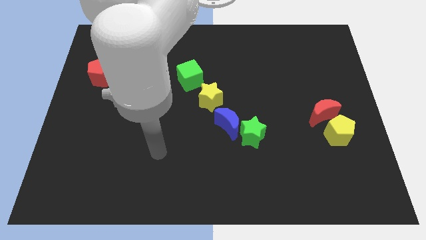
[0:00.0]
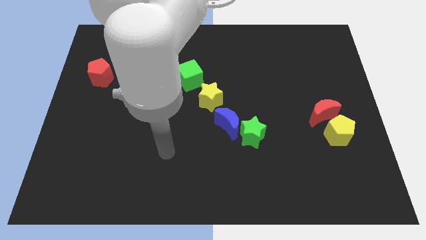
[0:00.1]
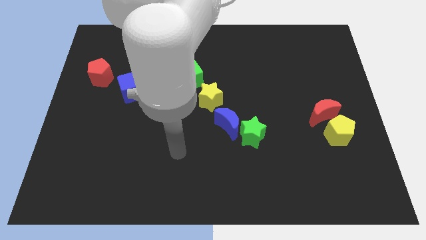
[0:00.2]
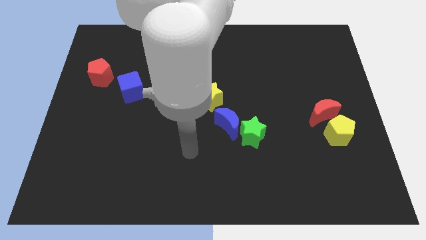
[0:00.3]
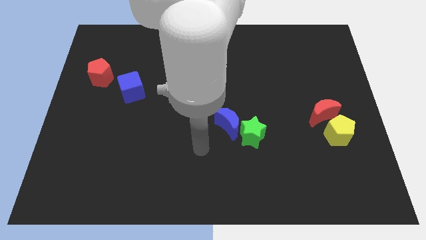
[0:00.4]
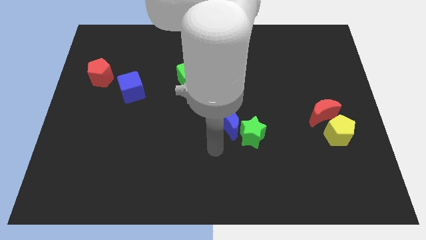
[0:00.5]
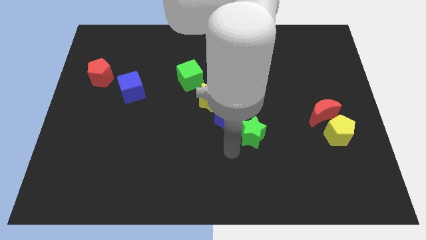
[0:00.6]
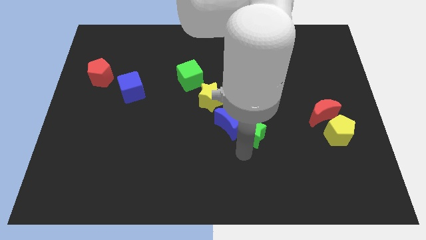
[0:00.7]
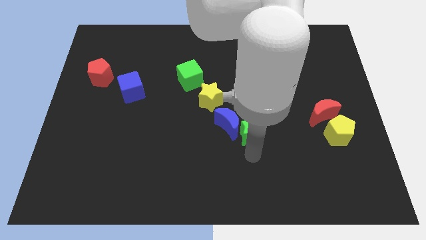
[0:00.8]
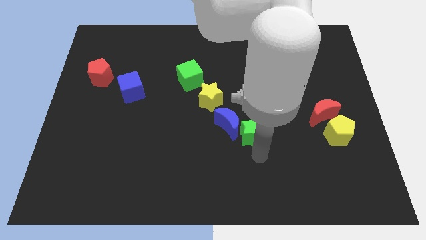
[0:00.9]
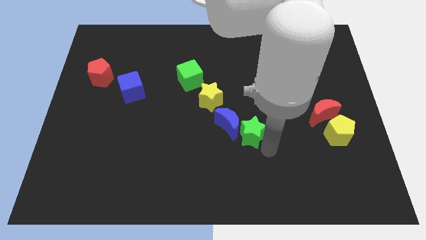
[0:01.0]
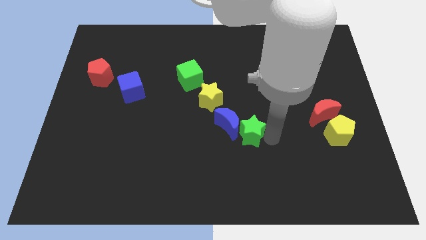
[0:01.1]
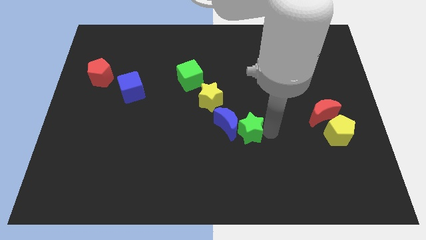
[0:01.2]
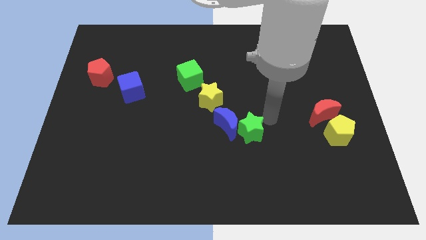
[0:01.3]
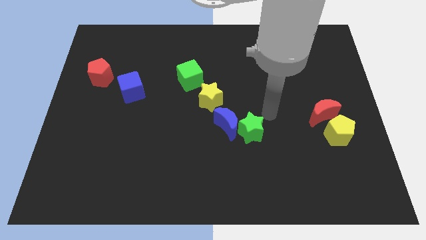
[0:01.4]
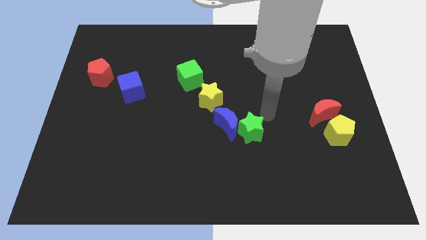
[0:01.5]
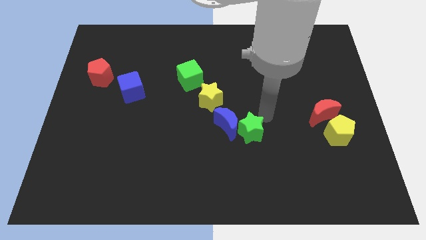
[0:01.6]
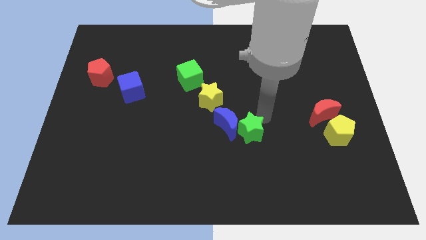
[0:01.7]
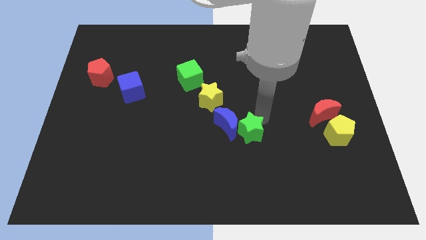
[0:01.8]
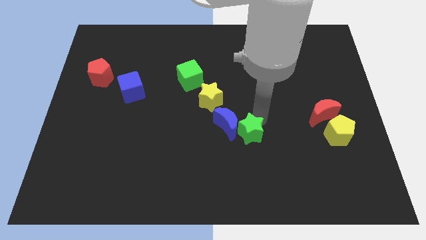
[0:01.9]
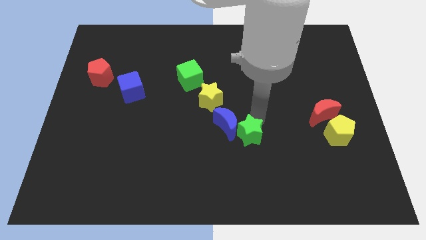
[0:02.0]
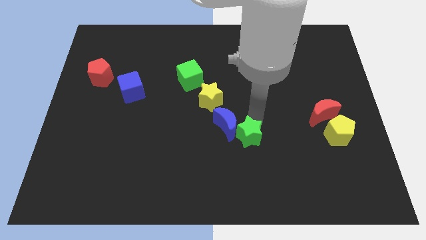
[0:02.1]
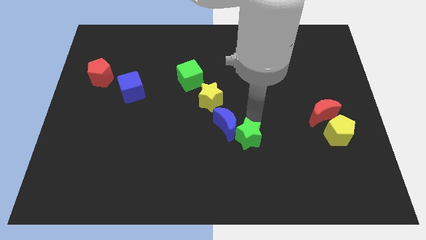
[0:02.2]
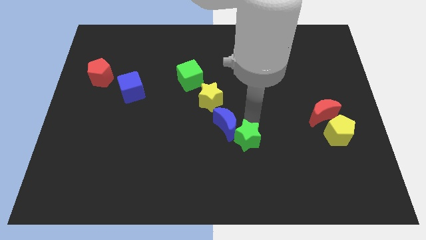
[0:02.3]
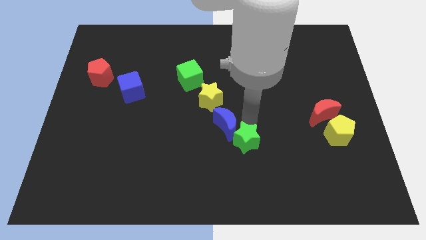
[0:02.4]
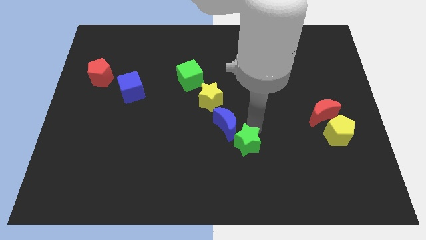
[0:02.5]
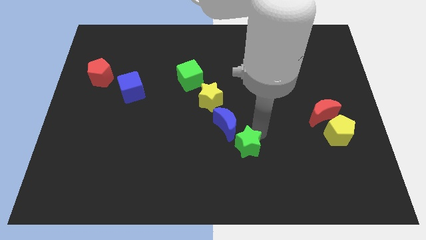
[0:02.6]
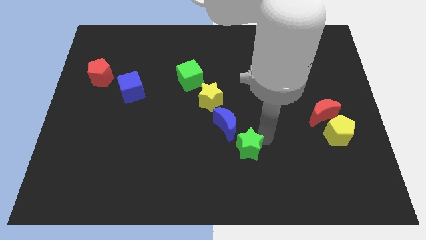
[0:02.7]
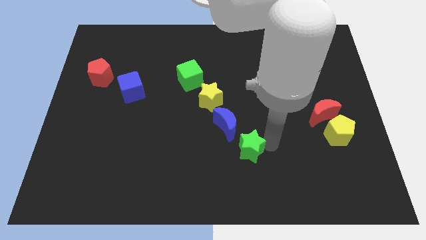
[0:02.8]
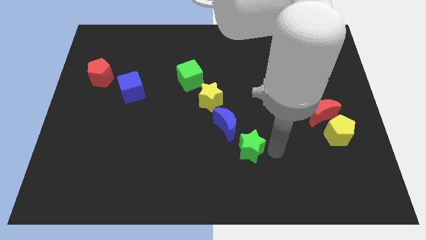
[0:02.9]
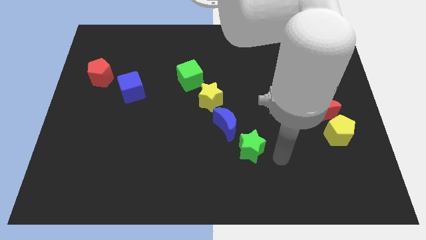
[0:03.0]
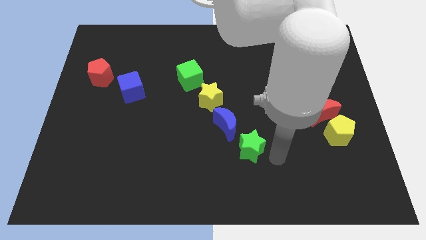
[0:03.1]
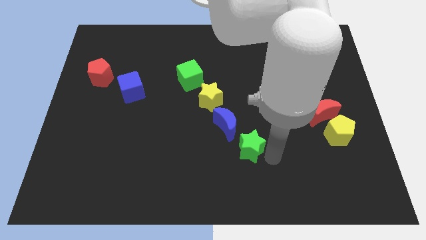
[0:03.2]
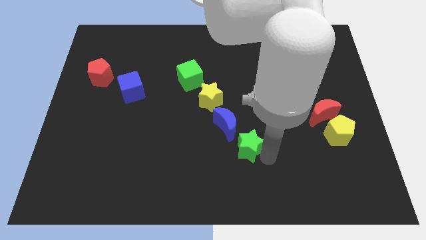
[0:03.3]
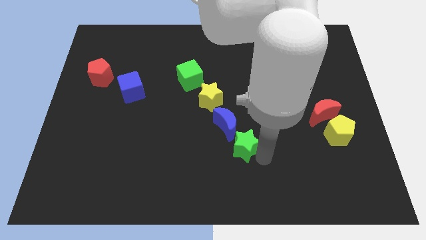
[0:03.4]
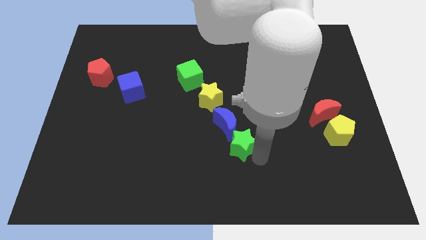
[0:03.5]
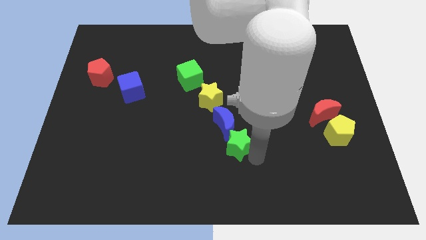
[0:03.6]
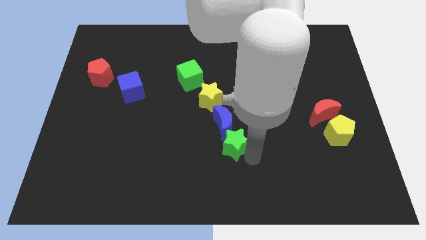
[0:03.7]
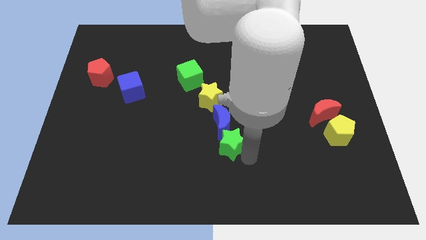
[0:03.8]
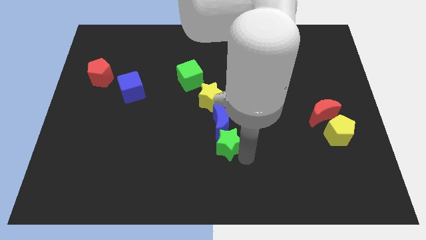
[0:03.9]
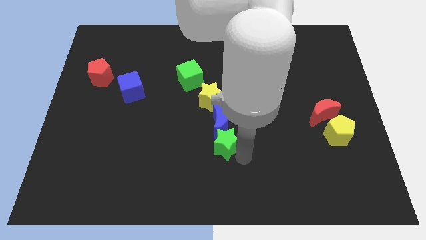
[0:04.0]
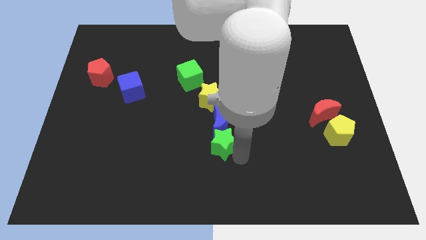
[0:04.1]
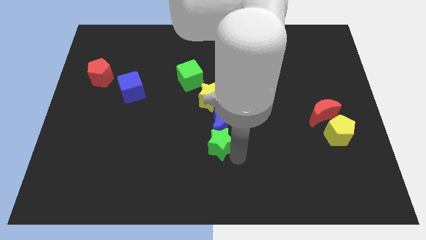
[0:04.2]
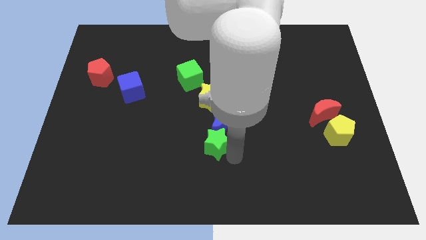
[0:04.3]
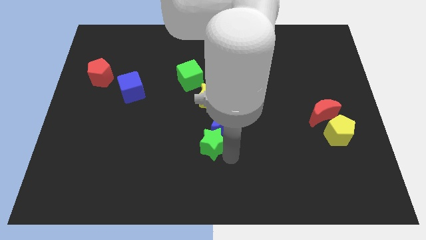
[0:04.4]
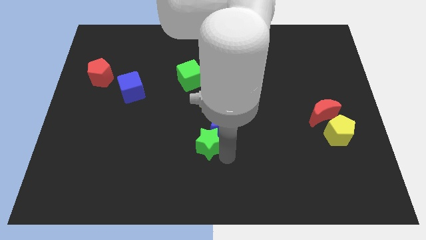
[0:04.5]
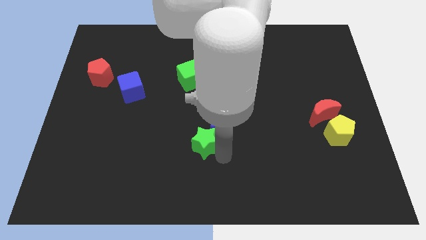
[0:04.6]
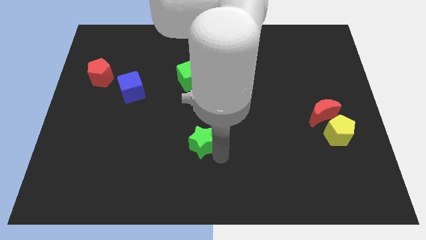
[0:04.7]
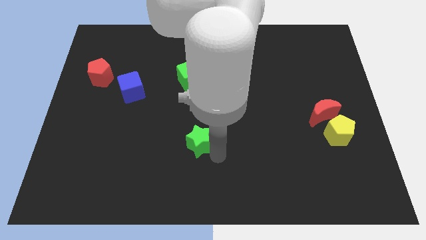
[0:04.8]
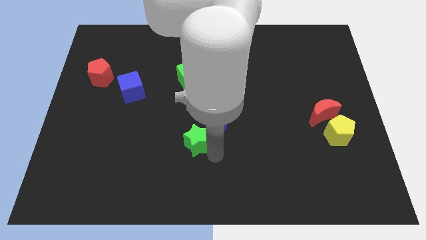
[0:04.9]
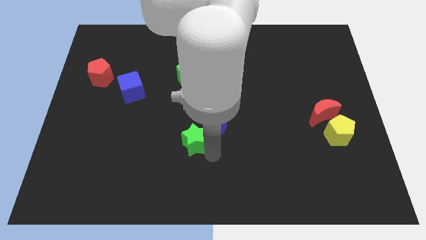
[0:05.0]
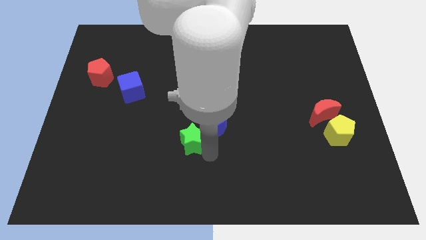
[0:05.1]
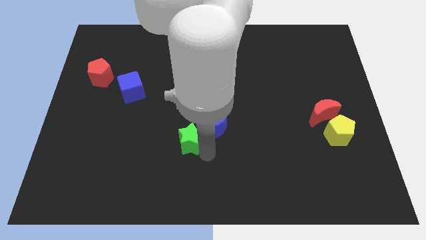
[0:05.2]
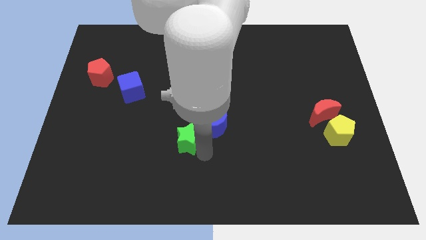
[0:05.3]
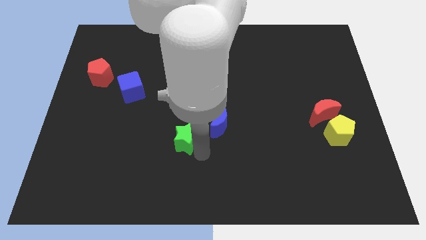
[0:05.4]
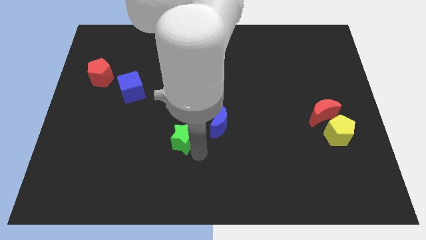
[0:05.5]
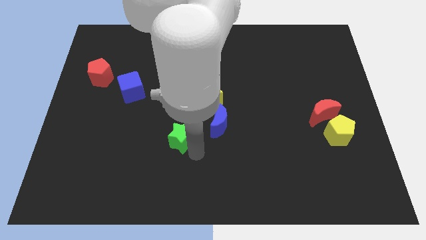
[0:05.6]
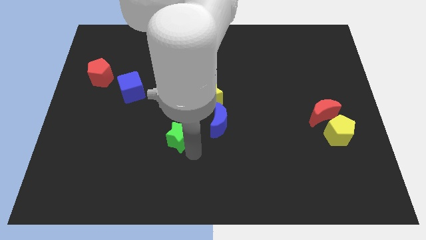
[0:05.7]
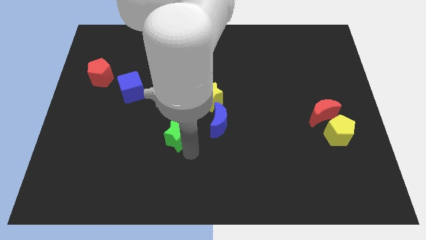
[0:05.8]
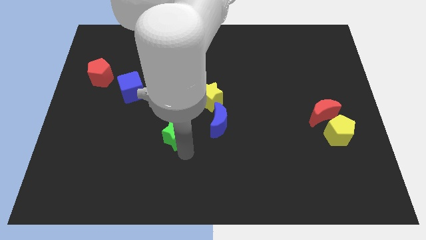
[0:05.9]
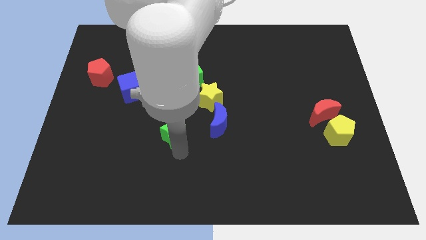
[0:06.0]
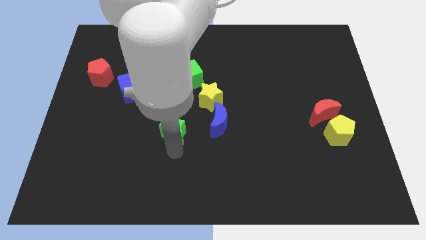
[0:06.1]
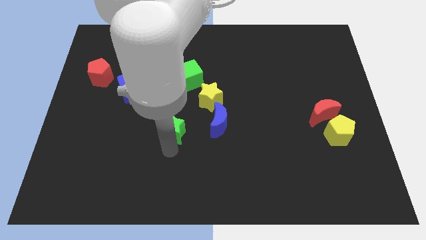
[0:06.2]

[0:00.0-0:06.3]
move the green star diagonally down and to the left of the yellow star

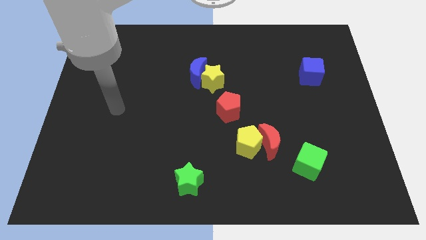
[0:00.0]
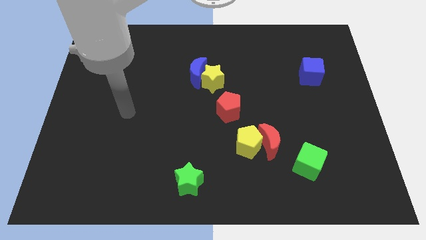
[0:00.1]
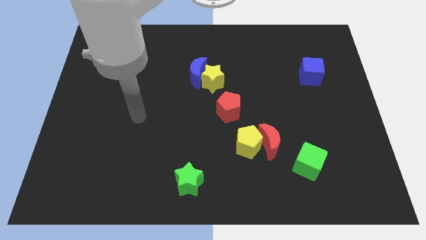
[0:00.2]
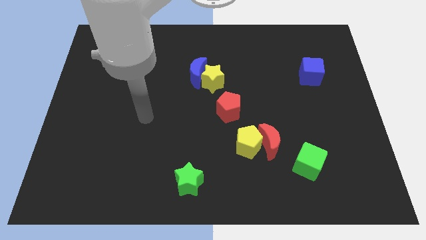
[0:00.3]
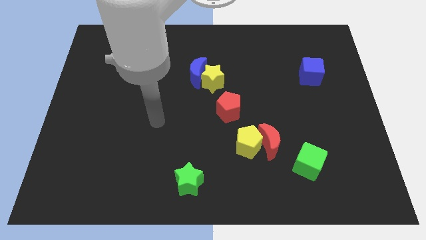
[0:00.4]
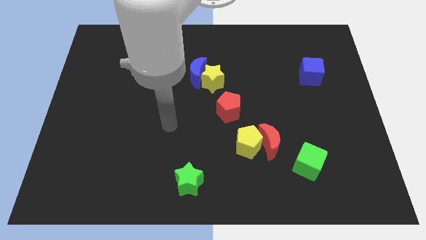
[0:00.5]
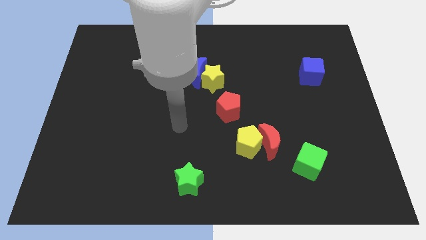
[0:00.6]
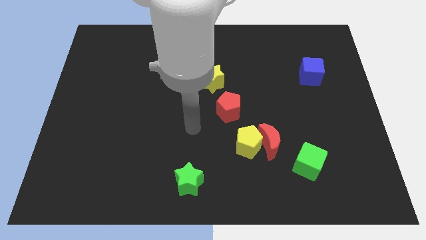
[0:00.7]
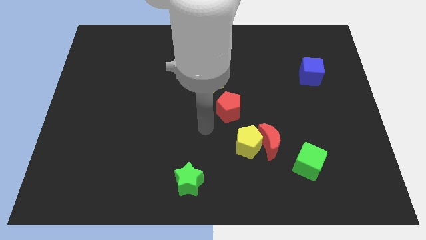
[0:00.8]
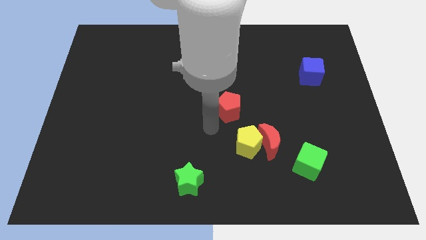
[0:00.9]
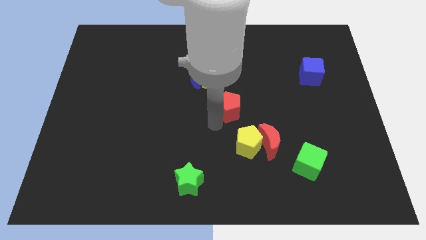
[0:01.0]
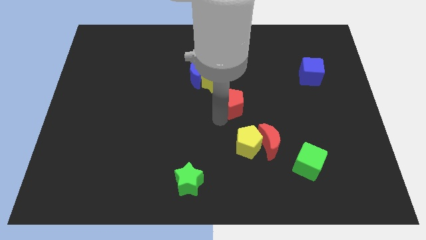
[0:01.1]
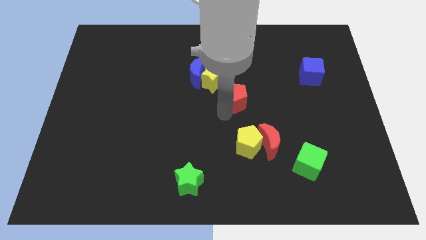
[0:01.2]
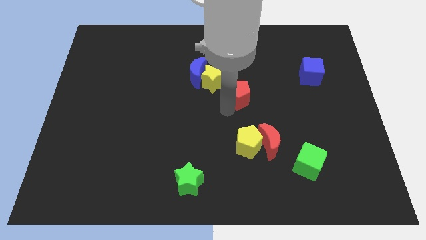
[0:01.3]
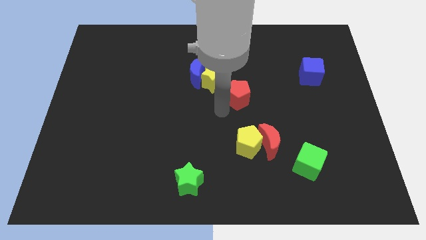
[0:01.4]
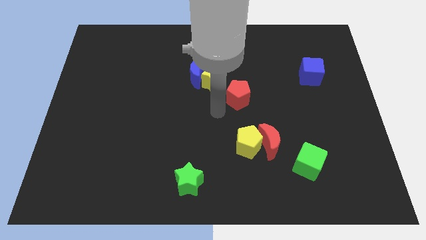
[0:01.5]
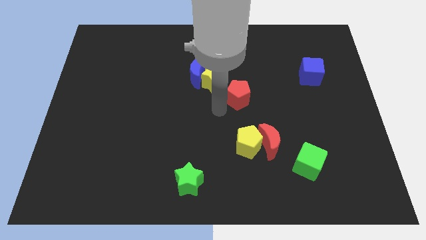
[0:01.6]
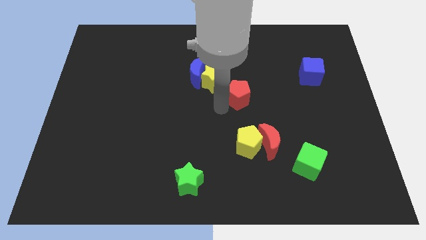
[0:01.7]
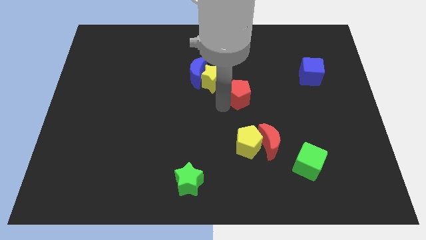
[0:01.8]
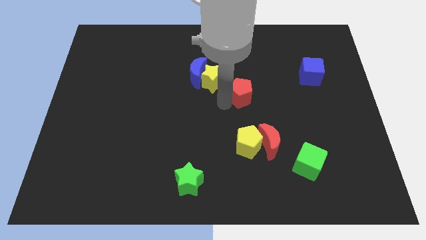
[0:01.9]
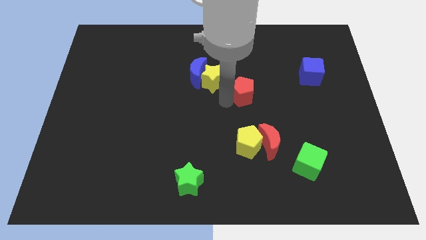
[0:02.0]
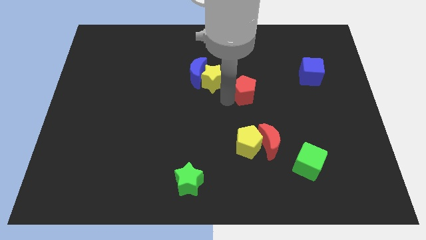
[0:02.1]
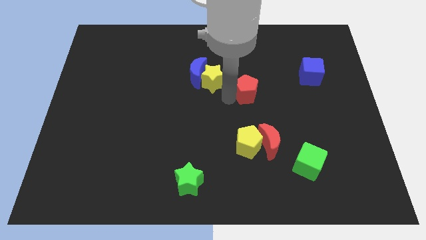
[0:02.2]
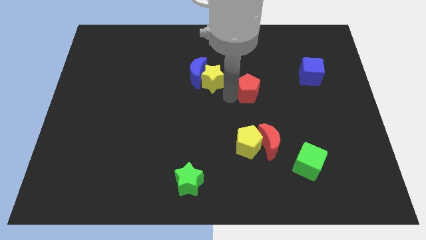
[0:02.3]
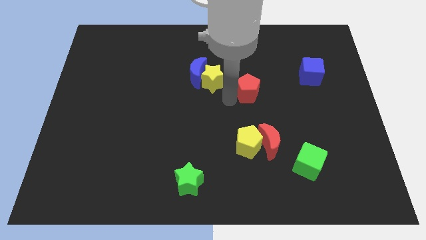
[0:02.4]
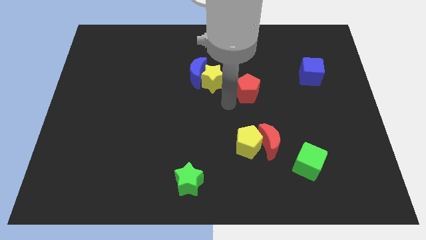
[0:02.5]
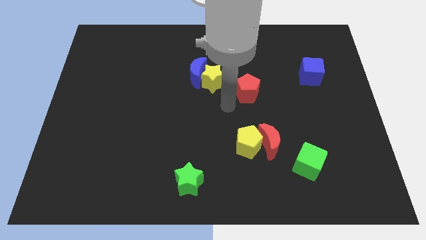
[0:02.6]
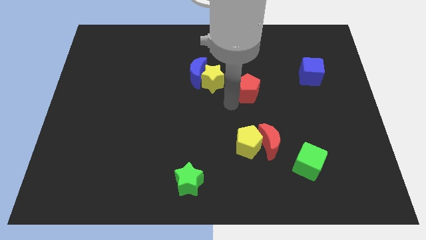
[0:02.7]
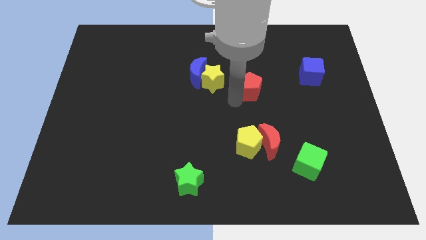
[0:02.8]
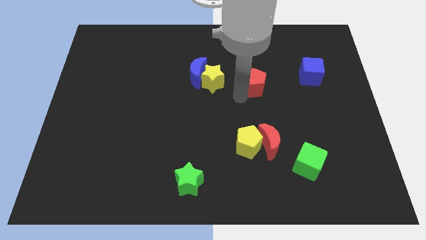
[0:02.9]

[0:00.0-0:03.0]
push the red pentagon left of the blue cube
